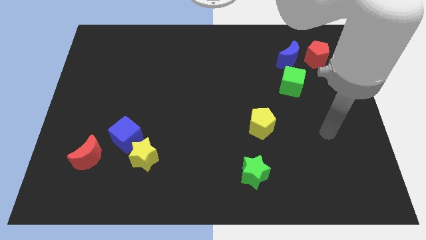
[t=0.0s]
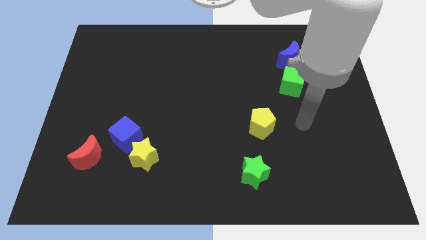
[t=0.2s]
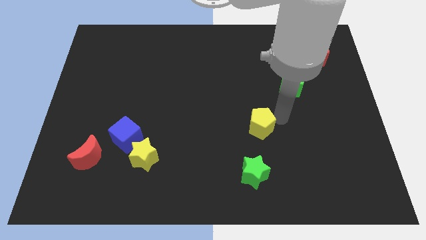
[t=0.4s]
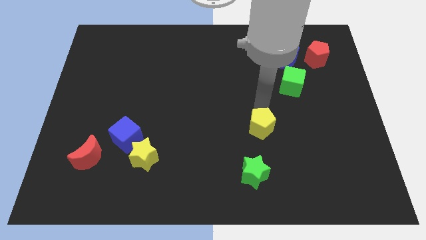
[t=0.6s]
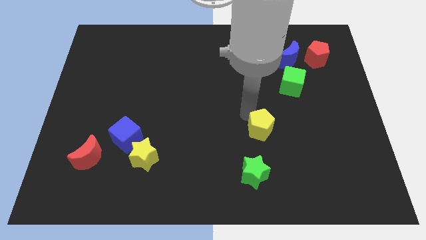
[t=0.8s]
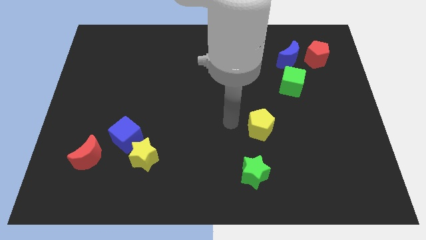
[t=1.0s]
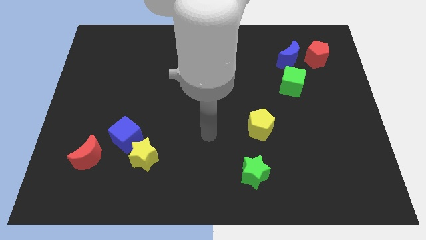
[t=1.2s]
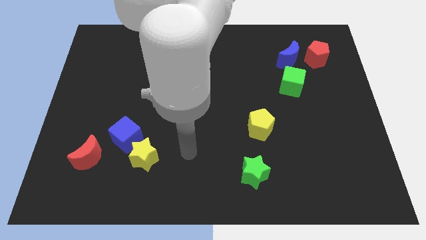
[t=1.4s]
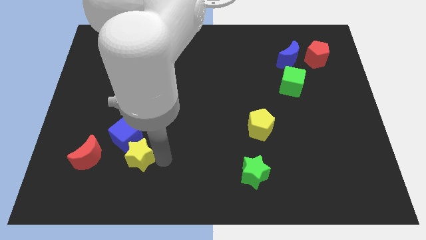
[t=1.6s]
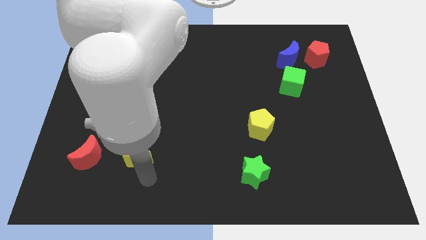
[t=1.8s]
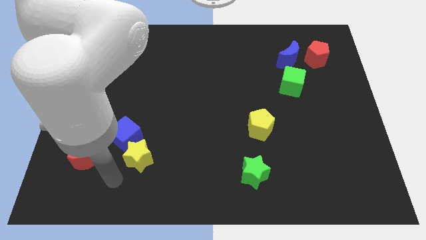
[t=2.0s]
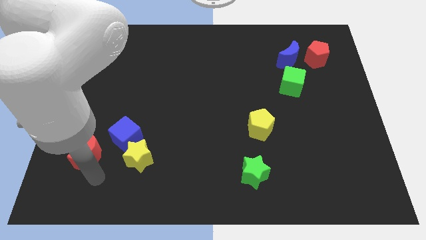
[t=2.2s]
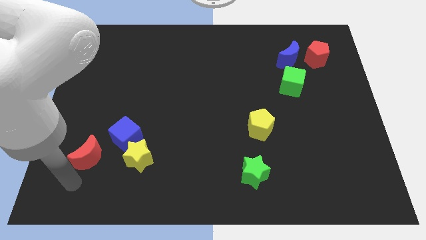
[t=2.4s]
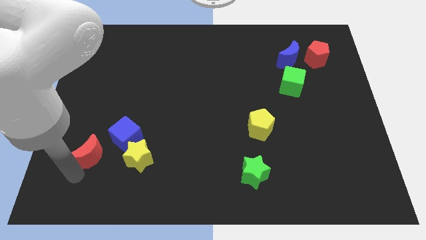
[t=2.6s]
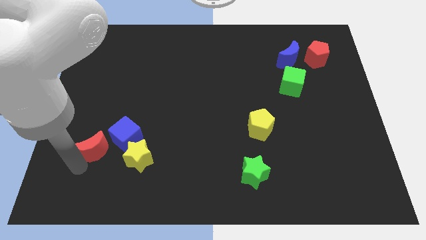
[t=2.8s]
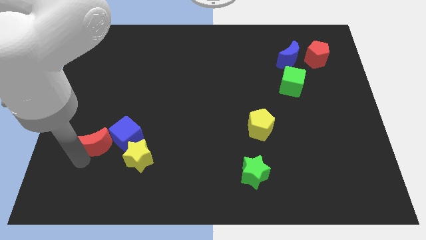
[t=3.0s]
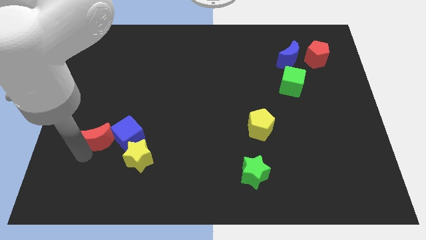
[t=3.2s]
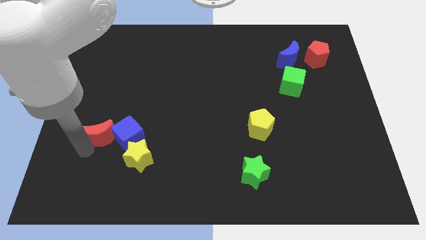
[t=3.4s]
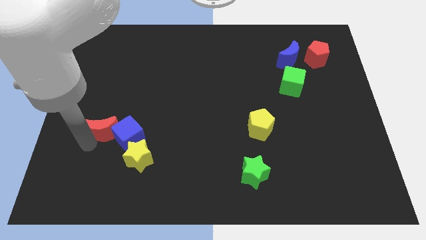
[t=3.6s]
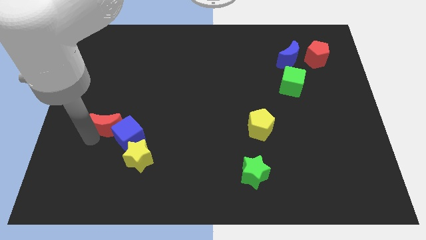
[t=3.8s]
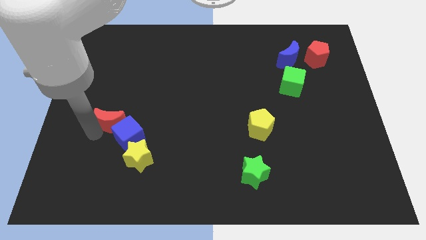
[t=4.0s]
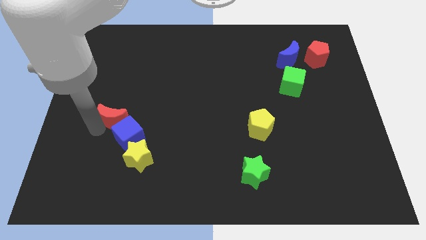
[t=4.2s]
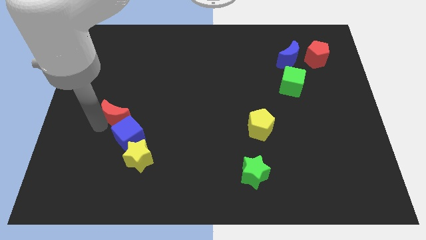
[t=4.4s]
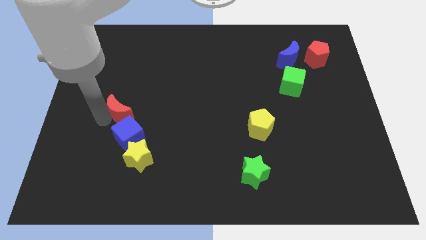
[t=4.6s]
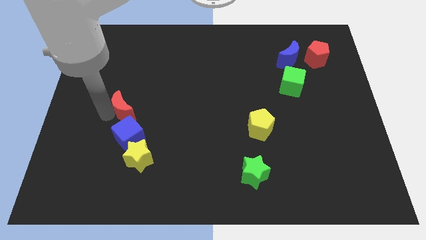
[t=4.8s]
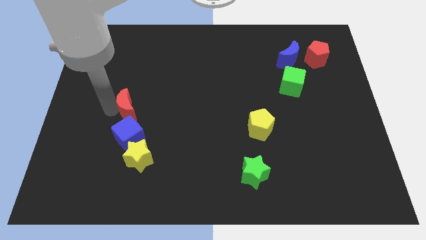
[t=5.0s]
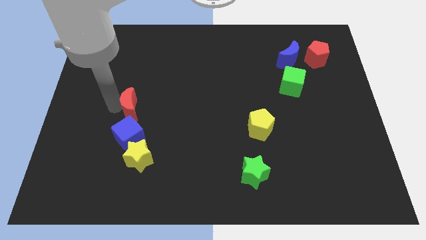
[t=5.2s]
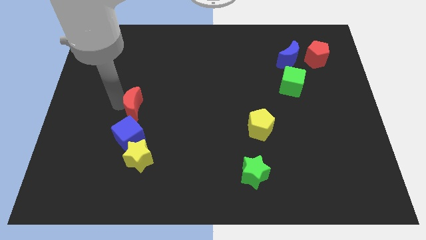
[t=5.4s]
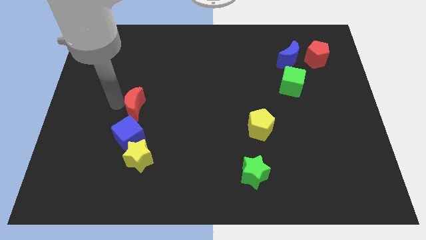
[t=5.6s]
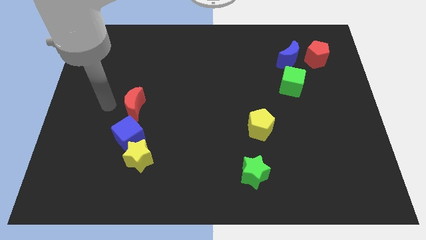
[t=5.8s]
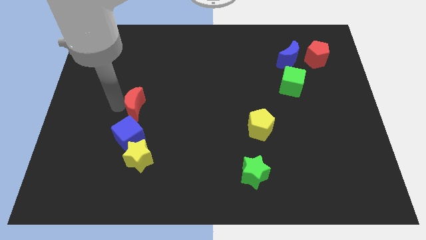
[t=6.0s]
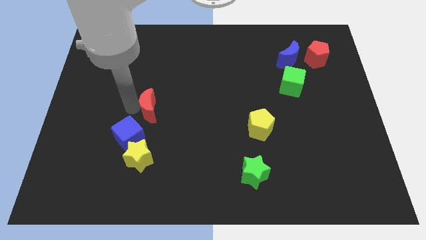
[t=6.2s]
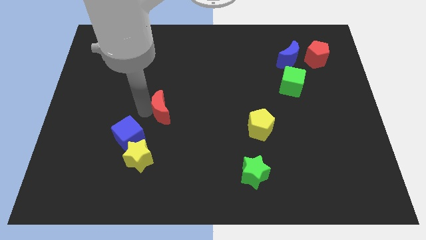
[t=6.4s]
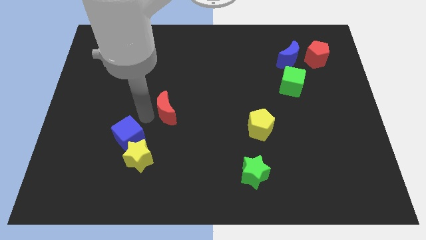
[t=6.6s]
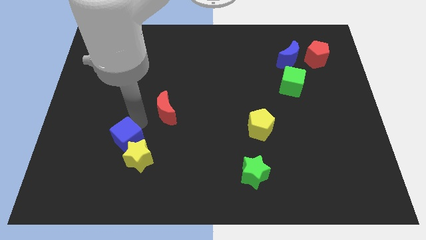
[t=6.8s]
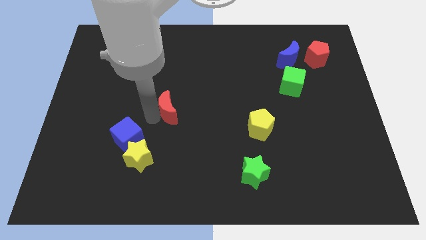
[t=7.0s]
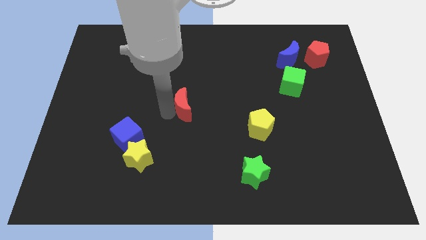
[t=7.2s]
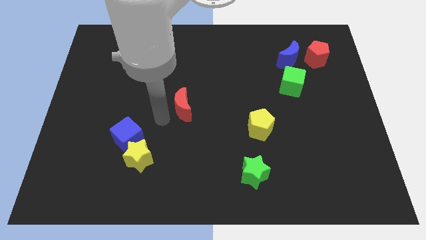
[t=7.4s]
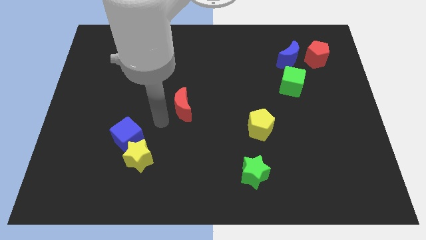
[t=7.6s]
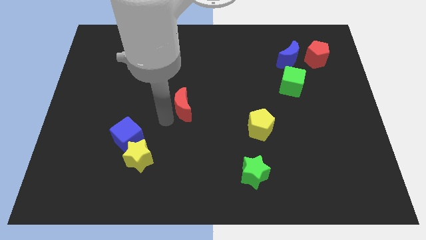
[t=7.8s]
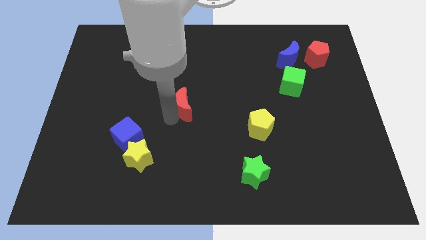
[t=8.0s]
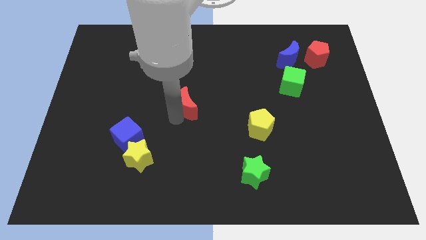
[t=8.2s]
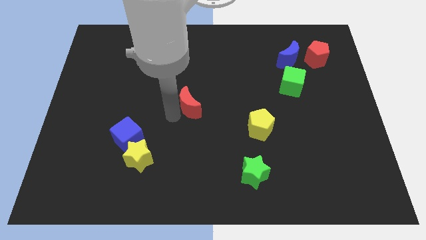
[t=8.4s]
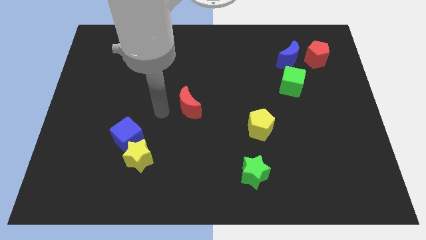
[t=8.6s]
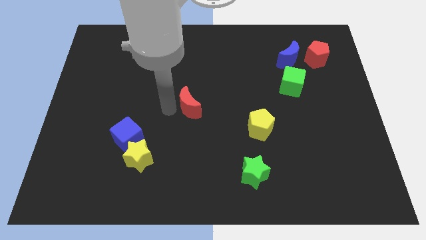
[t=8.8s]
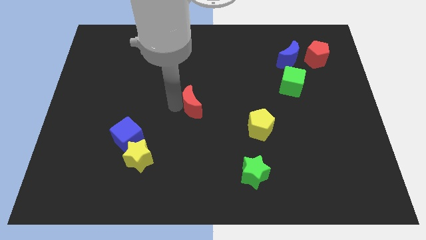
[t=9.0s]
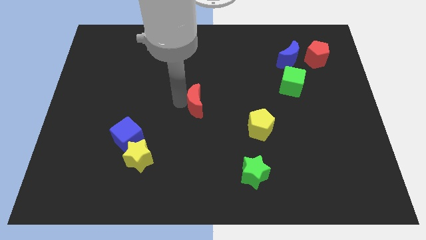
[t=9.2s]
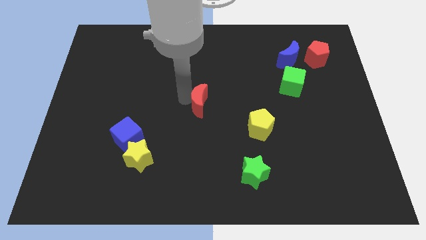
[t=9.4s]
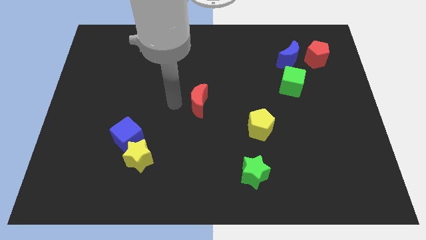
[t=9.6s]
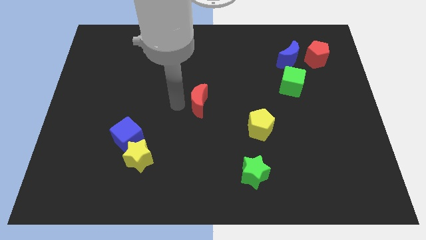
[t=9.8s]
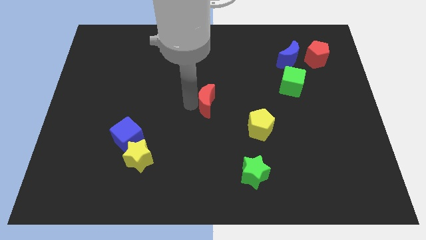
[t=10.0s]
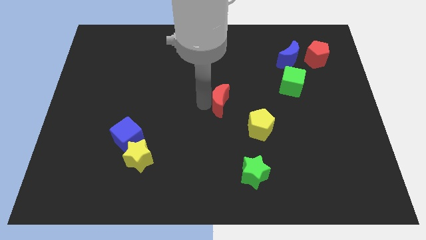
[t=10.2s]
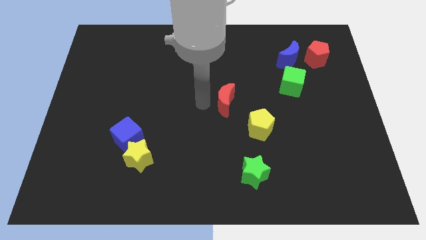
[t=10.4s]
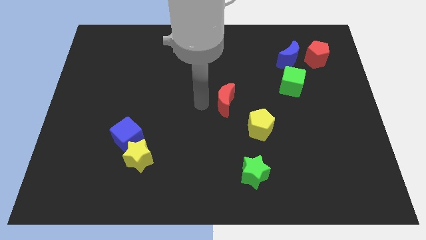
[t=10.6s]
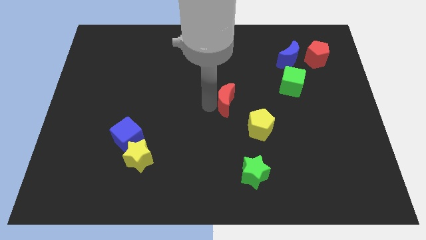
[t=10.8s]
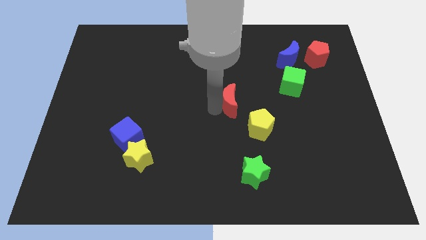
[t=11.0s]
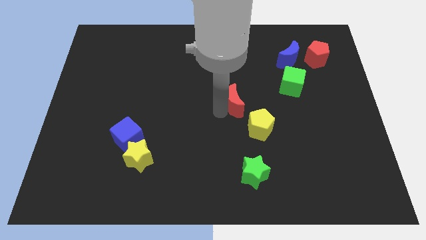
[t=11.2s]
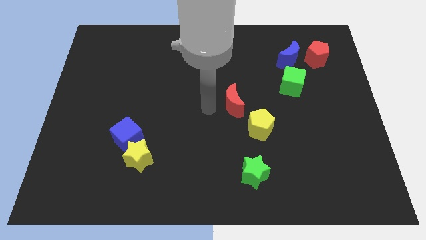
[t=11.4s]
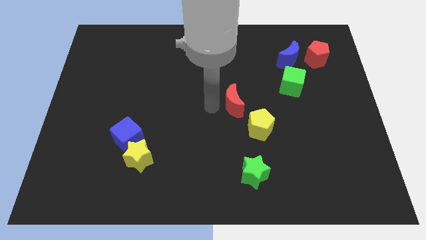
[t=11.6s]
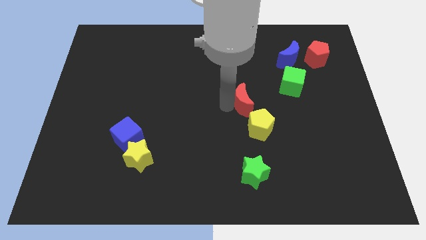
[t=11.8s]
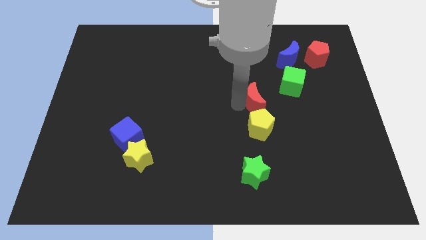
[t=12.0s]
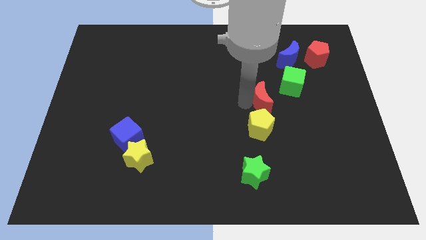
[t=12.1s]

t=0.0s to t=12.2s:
slide the red moon to the top right side of the yellow pentagon

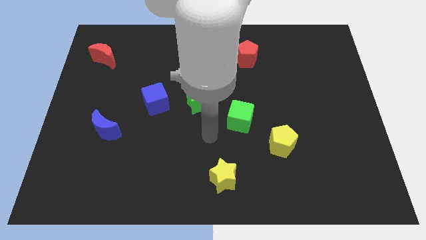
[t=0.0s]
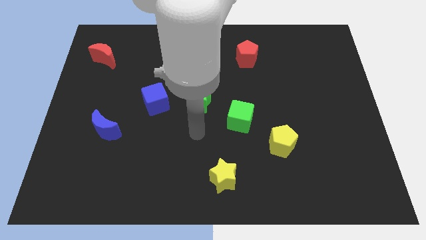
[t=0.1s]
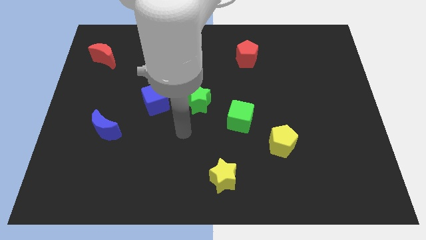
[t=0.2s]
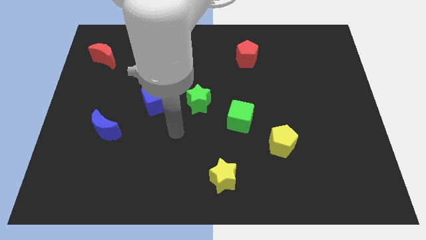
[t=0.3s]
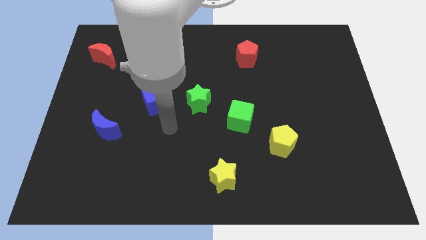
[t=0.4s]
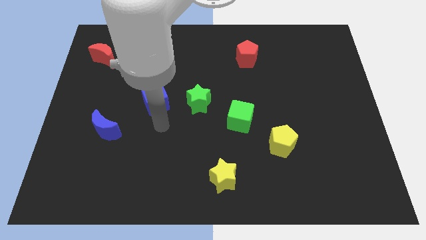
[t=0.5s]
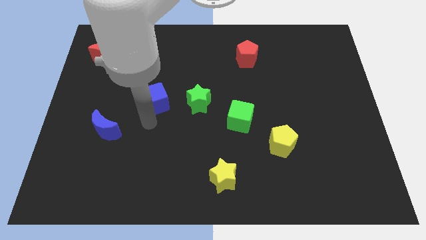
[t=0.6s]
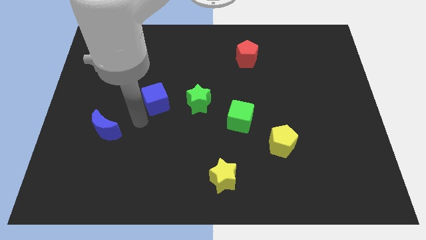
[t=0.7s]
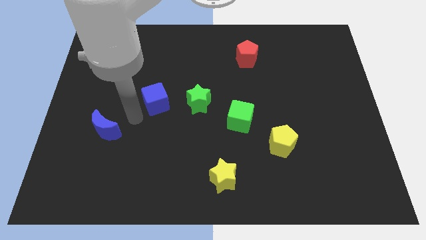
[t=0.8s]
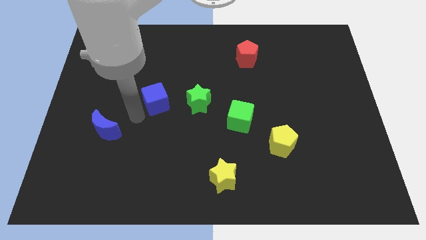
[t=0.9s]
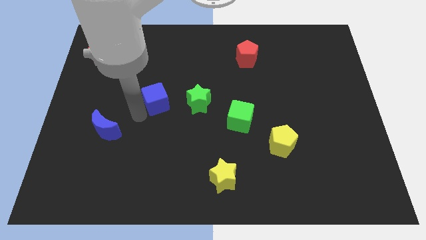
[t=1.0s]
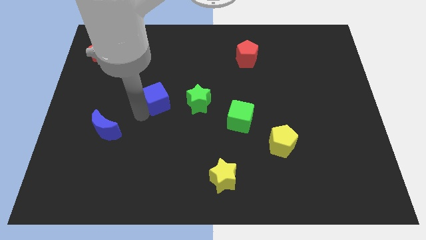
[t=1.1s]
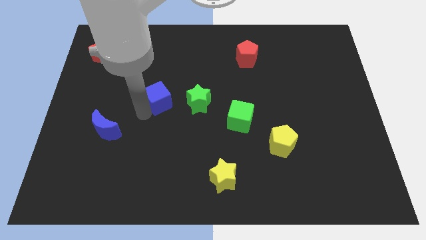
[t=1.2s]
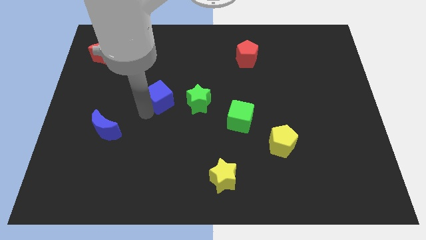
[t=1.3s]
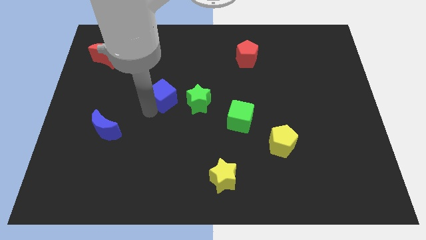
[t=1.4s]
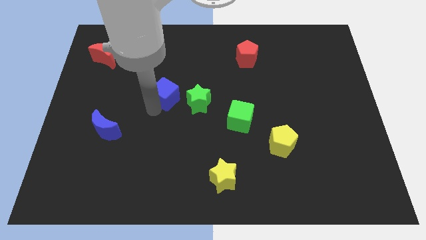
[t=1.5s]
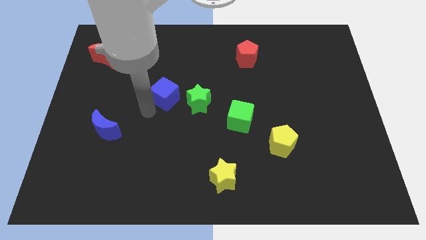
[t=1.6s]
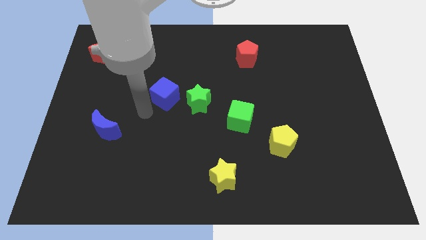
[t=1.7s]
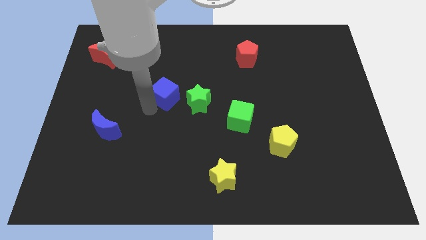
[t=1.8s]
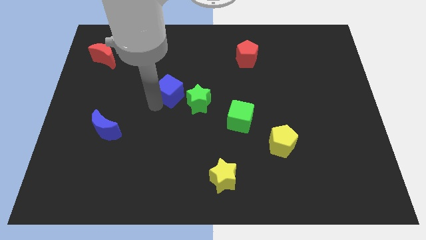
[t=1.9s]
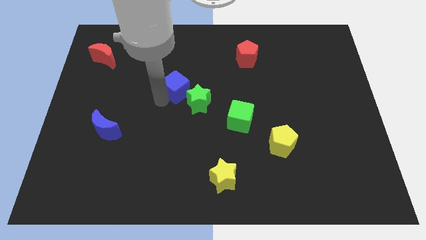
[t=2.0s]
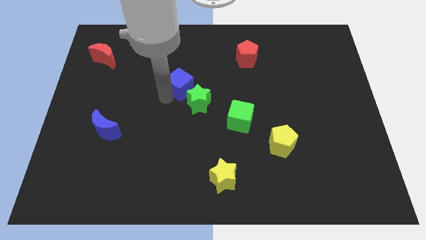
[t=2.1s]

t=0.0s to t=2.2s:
move the blue cube above the green star
